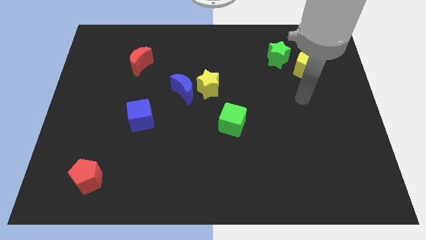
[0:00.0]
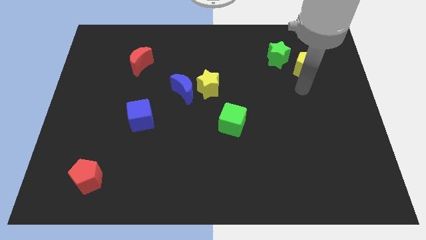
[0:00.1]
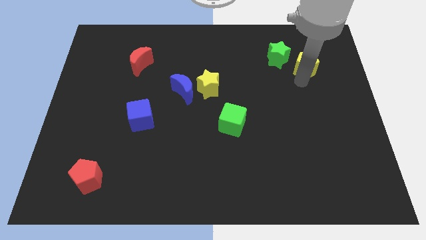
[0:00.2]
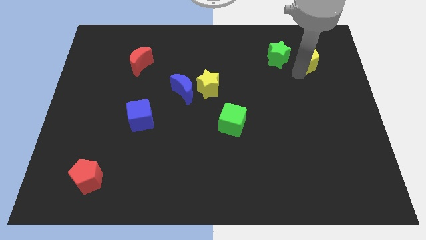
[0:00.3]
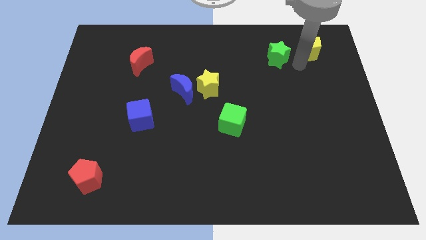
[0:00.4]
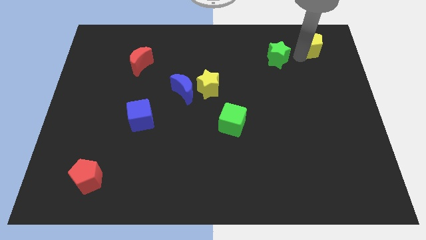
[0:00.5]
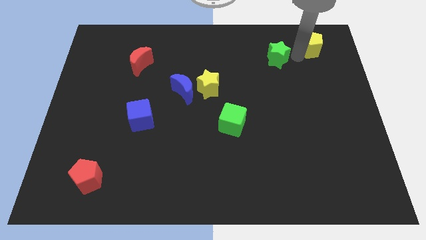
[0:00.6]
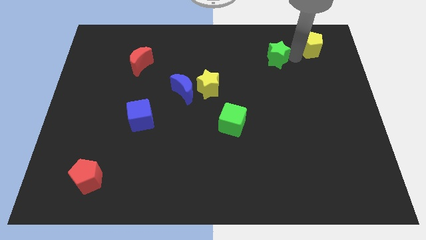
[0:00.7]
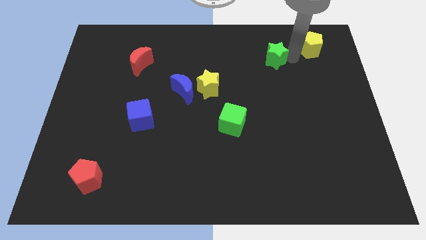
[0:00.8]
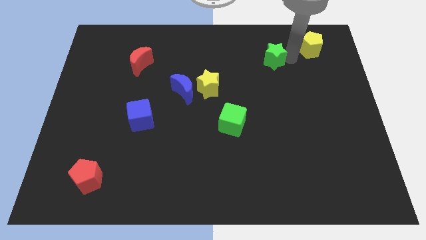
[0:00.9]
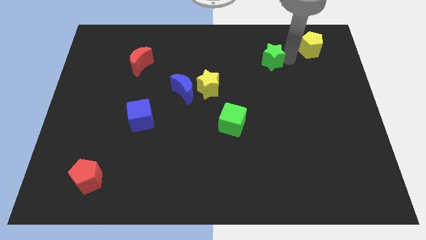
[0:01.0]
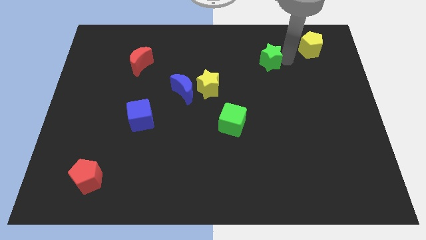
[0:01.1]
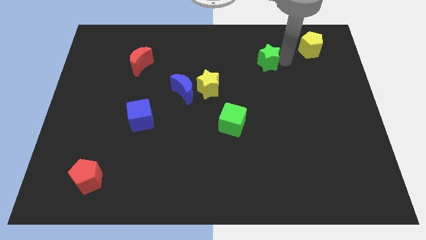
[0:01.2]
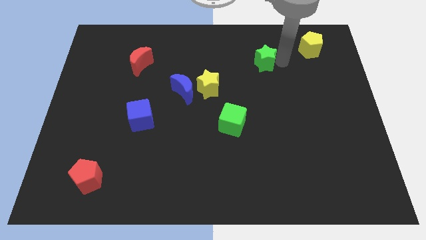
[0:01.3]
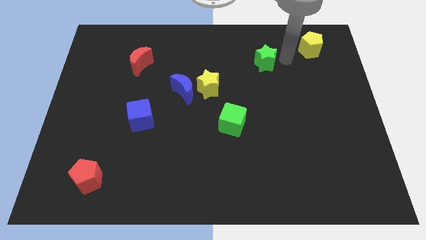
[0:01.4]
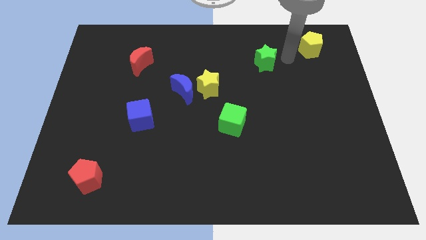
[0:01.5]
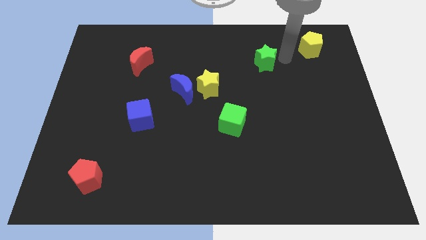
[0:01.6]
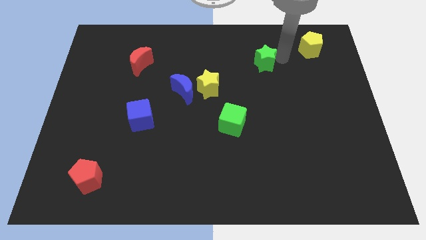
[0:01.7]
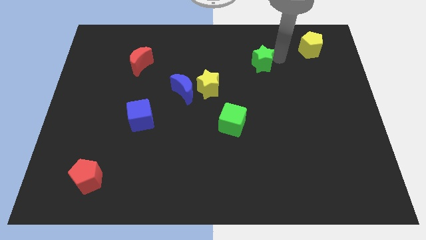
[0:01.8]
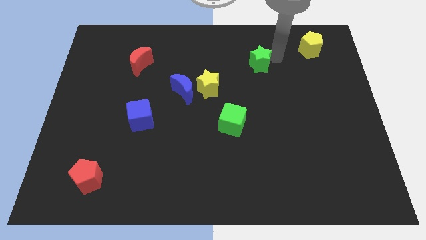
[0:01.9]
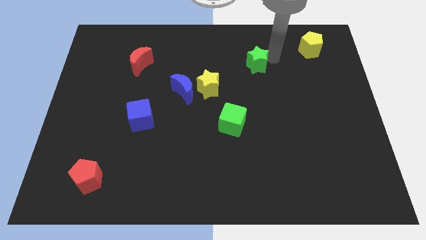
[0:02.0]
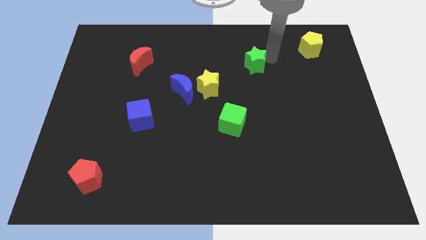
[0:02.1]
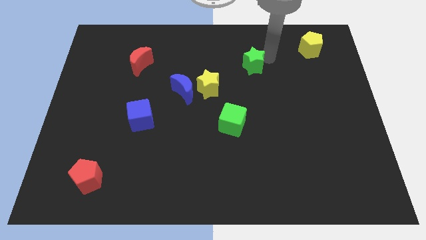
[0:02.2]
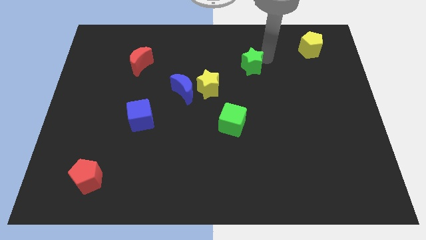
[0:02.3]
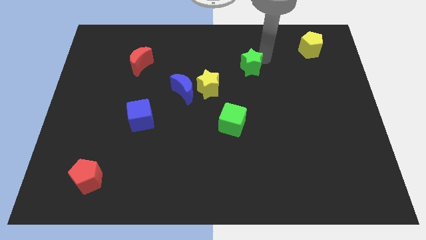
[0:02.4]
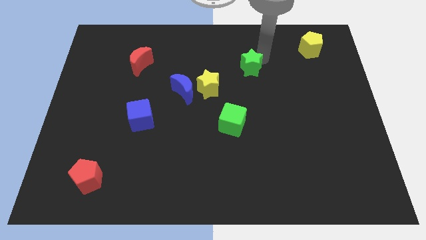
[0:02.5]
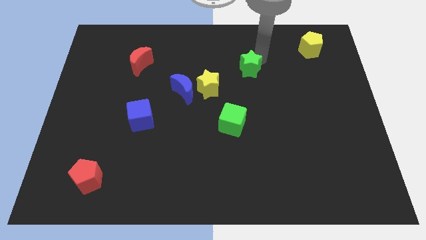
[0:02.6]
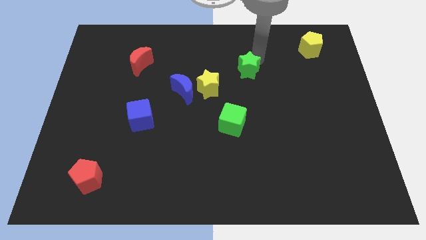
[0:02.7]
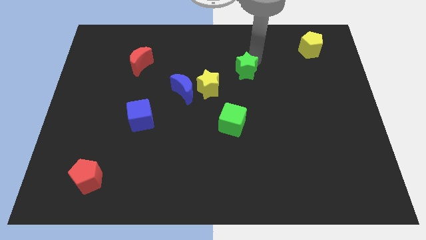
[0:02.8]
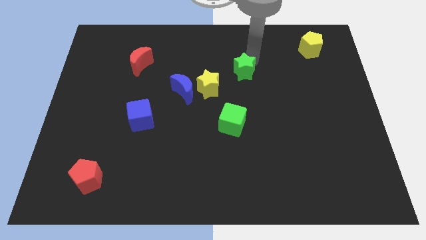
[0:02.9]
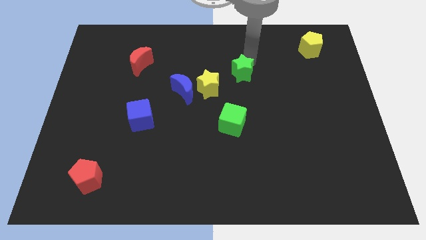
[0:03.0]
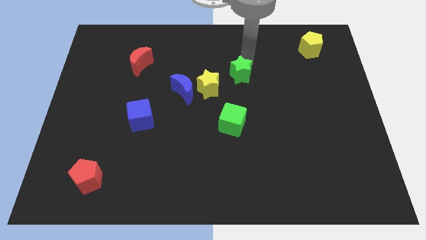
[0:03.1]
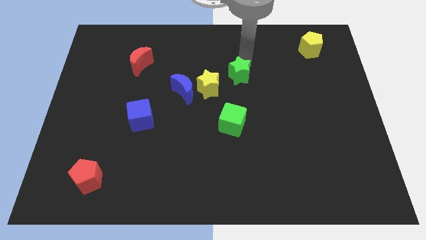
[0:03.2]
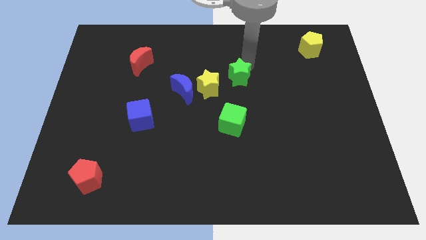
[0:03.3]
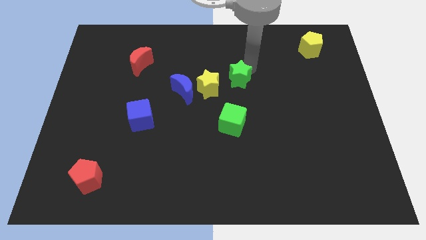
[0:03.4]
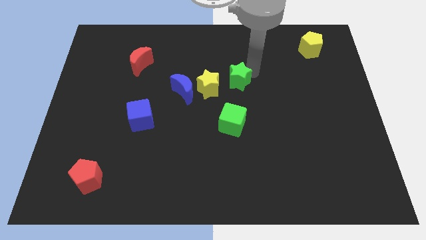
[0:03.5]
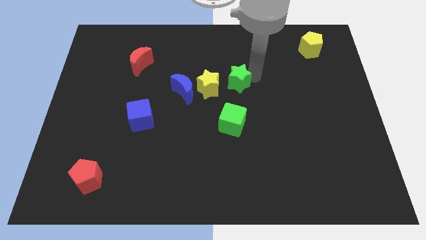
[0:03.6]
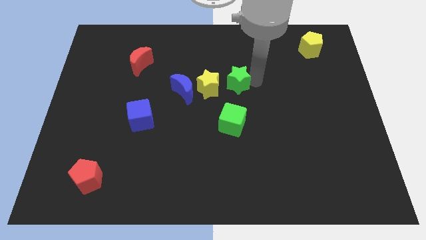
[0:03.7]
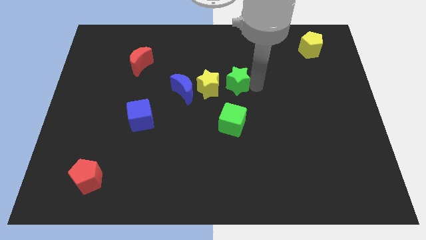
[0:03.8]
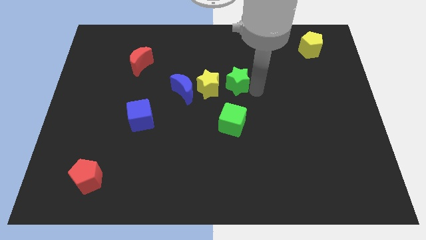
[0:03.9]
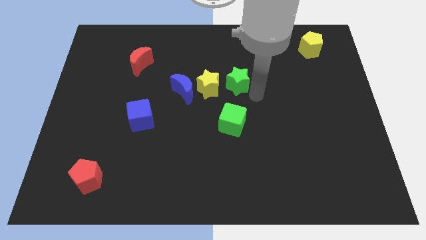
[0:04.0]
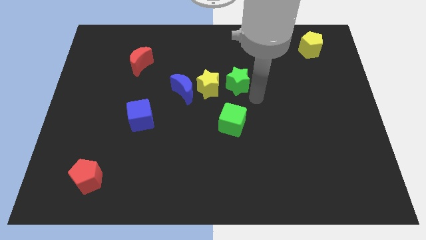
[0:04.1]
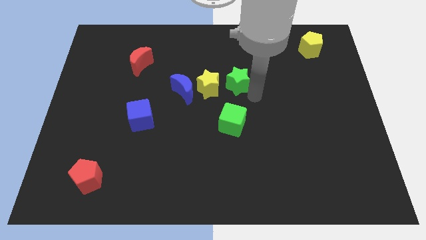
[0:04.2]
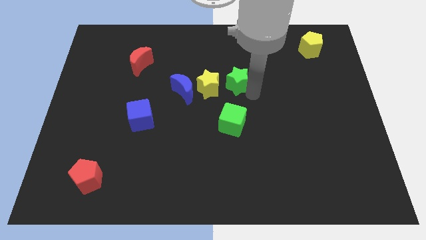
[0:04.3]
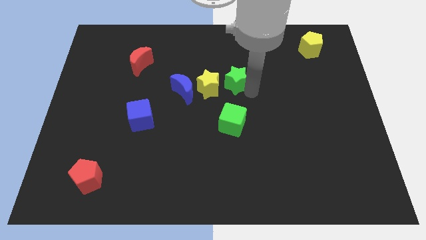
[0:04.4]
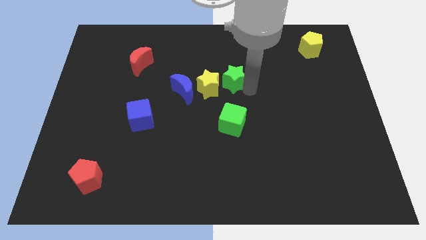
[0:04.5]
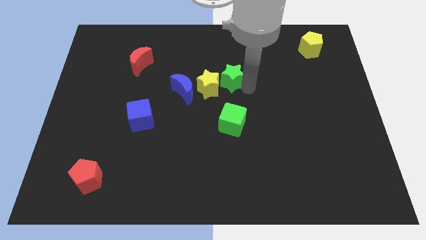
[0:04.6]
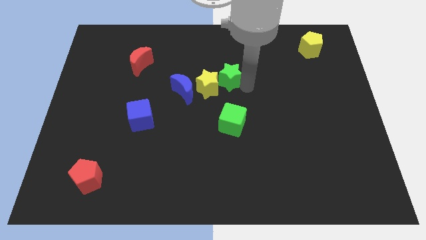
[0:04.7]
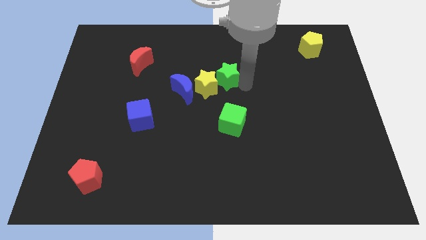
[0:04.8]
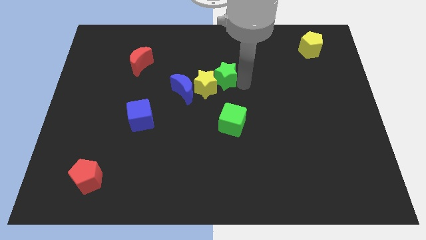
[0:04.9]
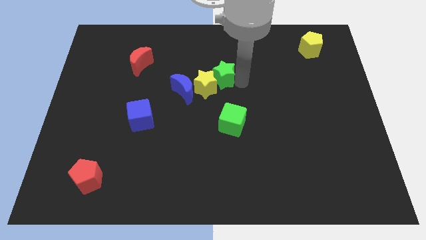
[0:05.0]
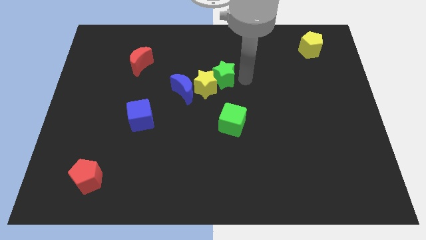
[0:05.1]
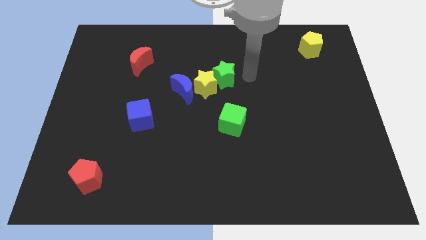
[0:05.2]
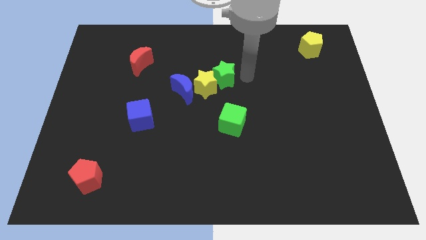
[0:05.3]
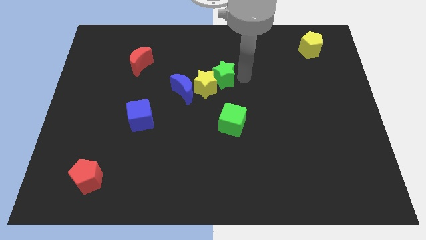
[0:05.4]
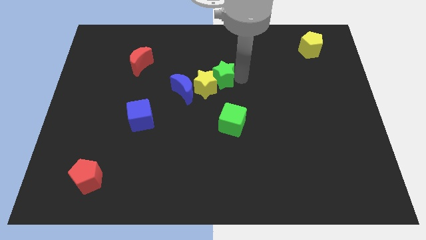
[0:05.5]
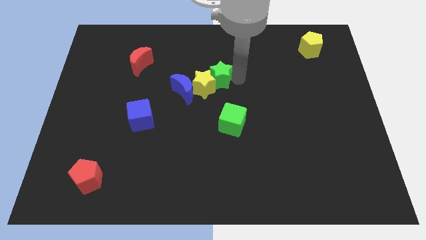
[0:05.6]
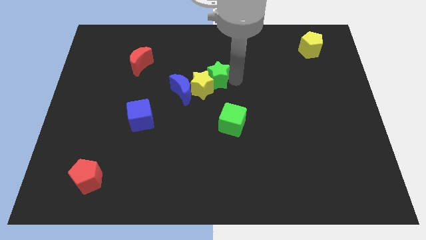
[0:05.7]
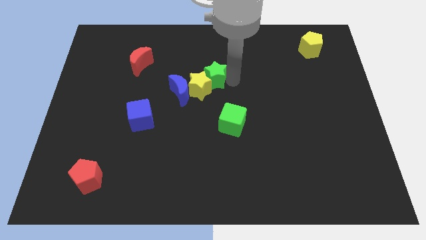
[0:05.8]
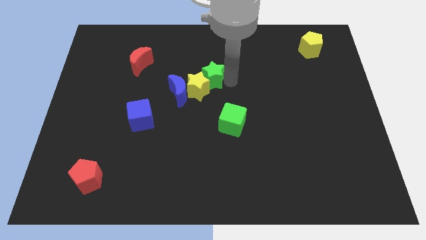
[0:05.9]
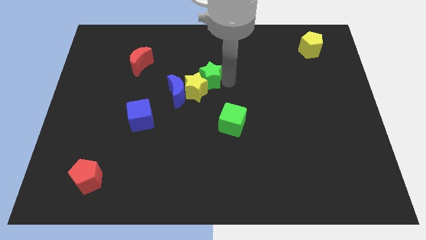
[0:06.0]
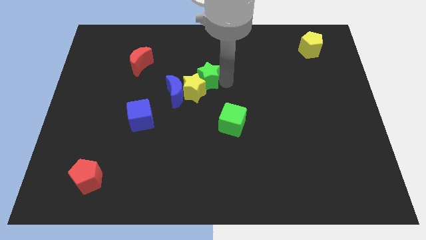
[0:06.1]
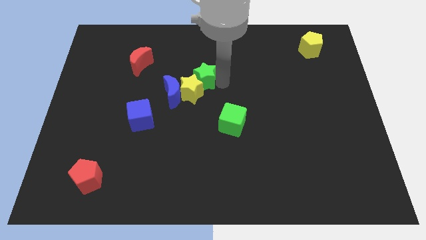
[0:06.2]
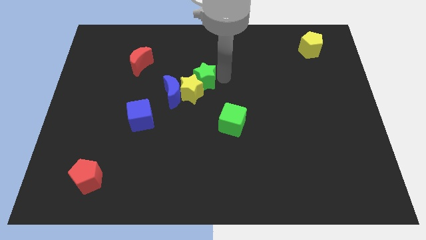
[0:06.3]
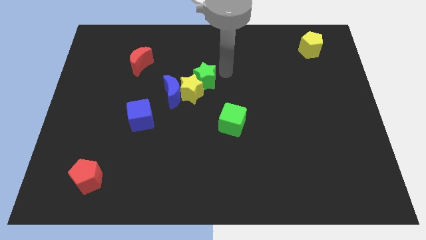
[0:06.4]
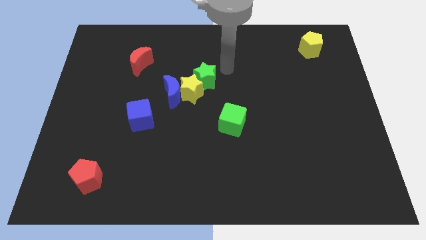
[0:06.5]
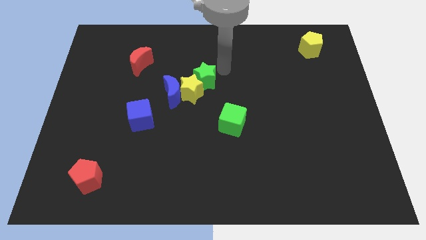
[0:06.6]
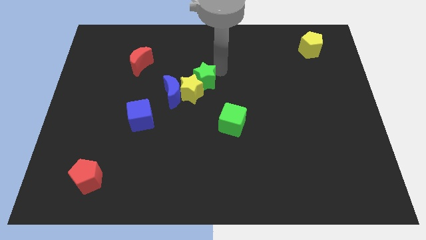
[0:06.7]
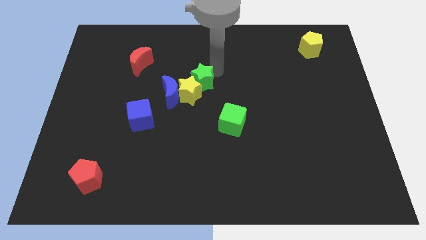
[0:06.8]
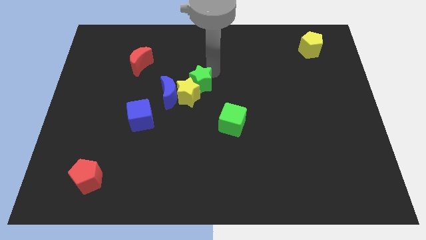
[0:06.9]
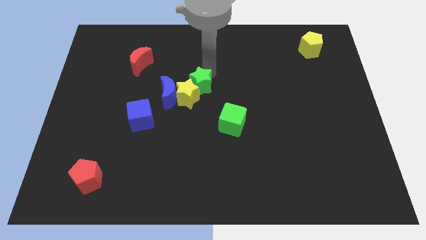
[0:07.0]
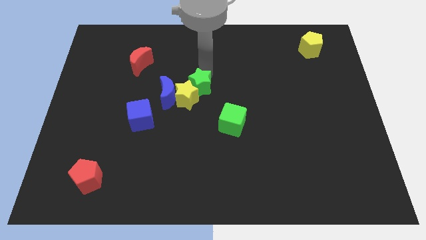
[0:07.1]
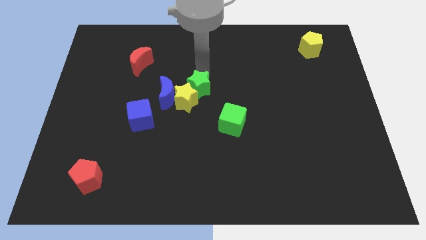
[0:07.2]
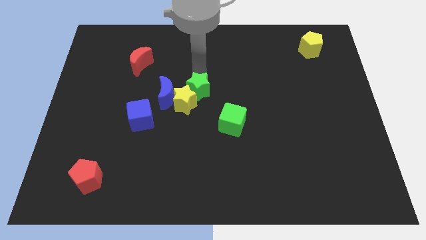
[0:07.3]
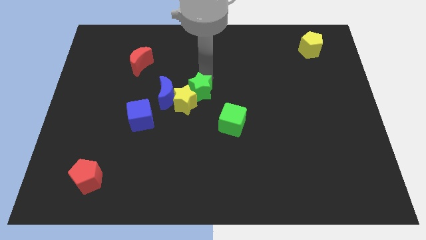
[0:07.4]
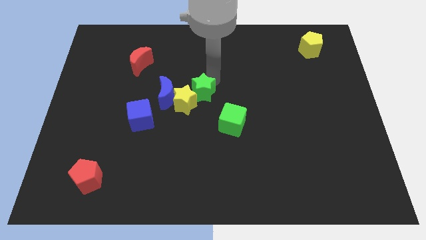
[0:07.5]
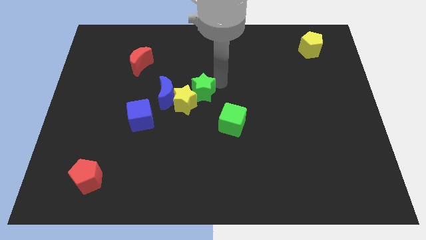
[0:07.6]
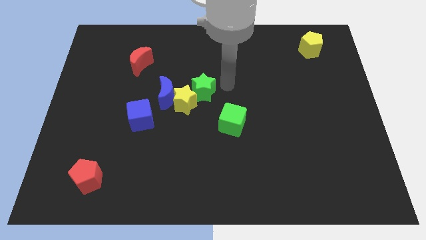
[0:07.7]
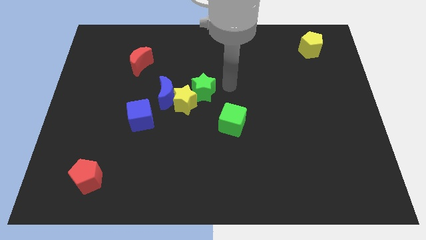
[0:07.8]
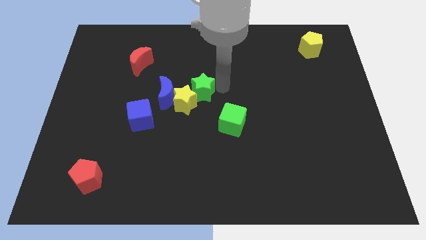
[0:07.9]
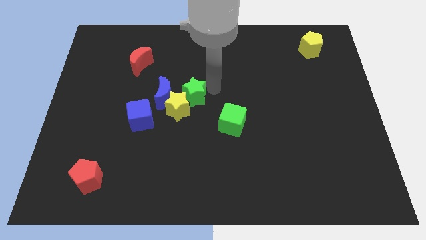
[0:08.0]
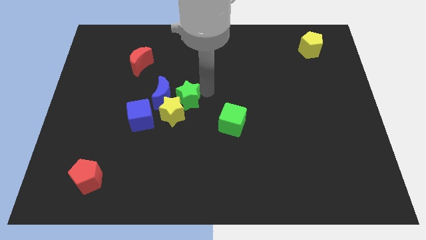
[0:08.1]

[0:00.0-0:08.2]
push the green star close to the blue moon
